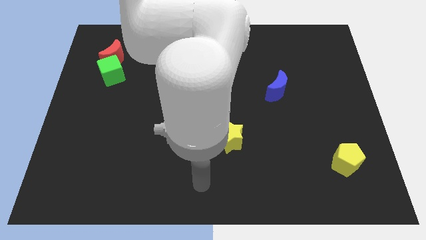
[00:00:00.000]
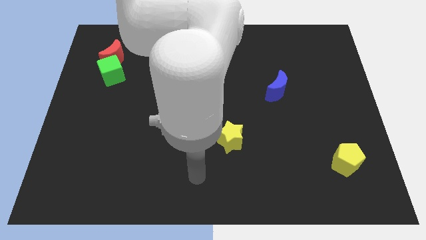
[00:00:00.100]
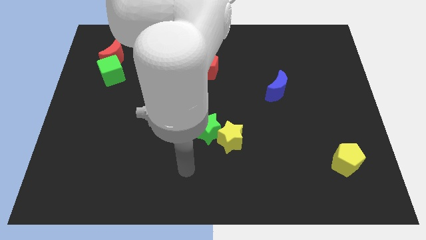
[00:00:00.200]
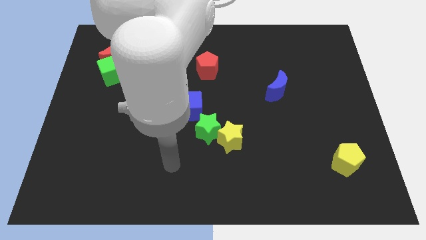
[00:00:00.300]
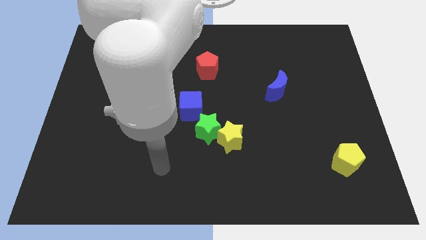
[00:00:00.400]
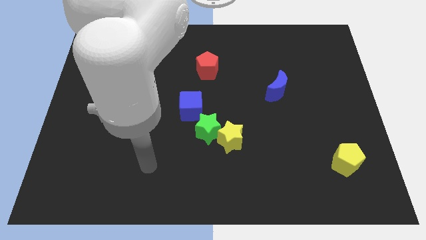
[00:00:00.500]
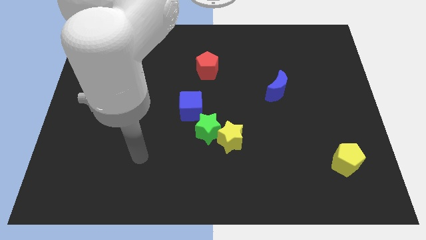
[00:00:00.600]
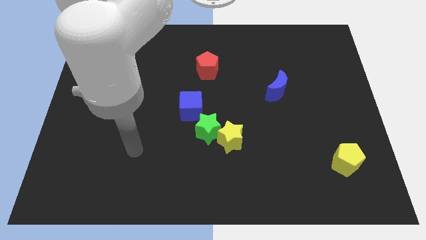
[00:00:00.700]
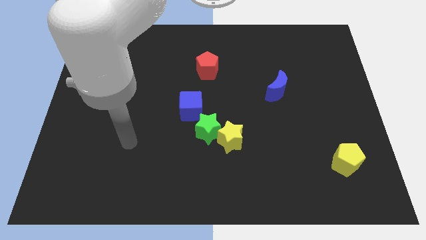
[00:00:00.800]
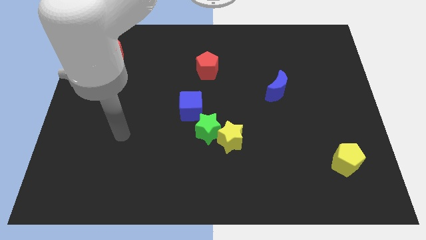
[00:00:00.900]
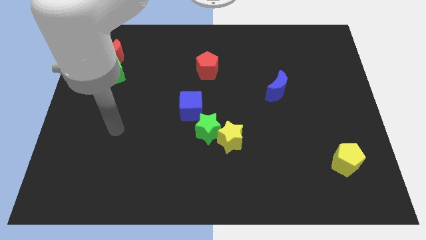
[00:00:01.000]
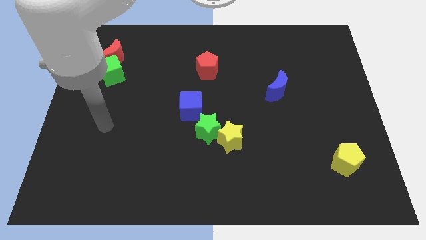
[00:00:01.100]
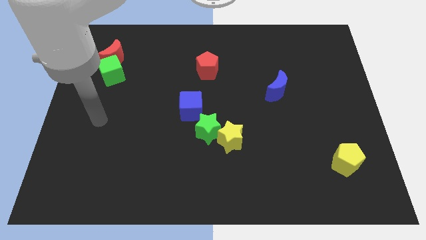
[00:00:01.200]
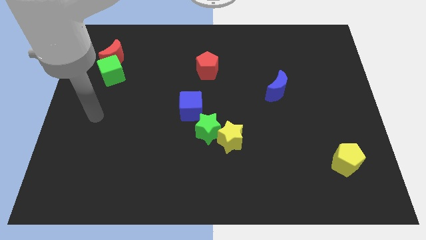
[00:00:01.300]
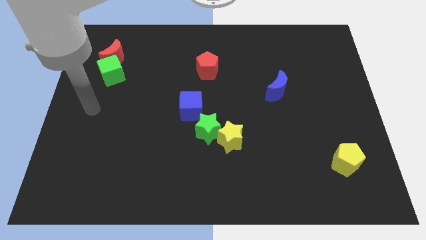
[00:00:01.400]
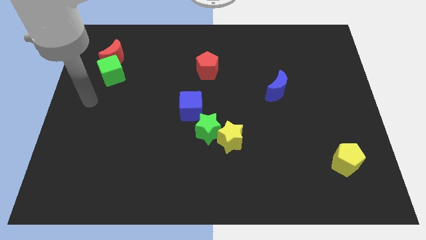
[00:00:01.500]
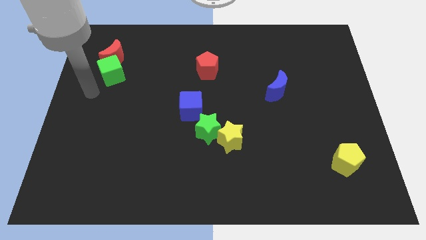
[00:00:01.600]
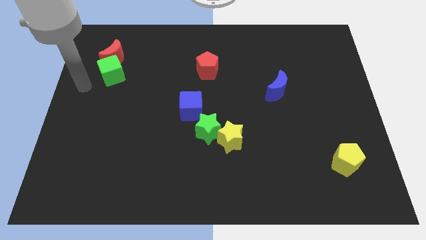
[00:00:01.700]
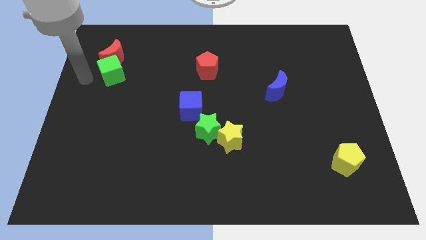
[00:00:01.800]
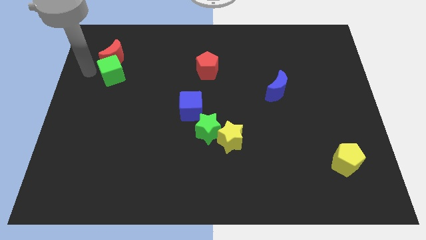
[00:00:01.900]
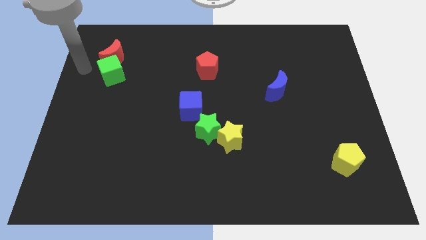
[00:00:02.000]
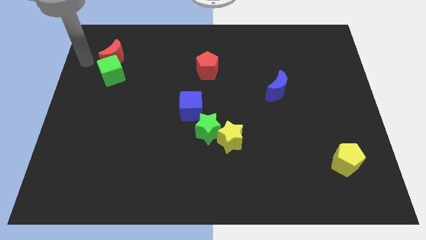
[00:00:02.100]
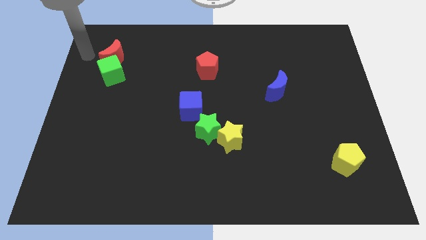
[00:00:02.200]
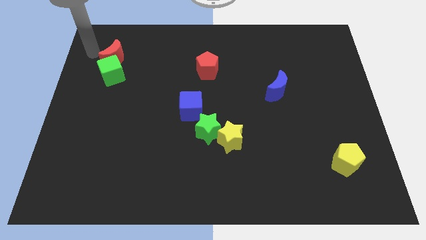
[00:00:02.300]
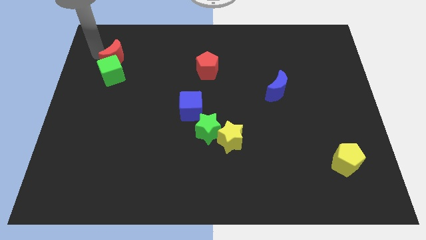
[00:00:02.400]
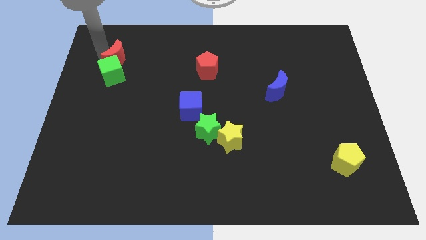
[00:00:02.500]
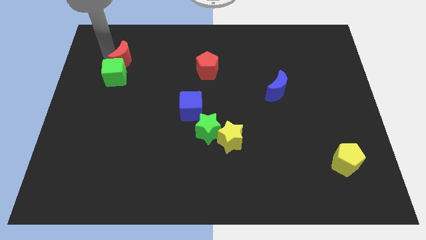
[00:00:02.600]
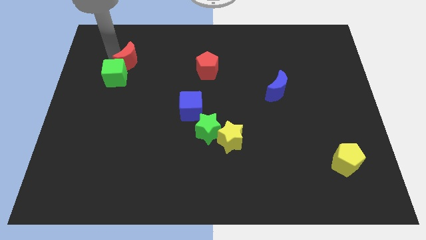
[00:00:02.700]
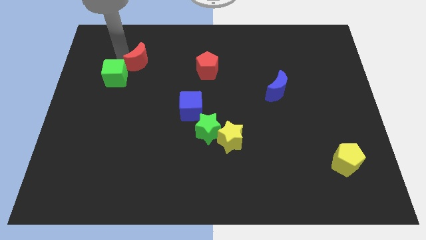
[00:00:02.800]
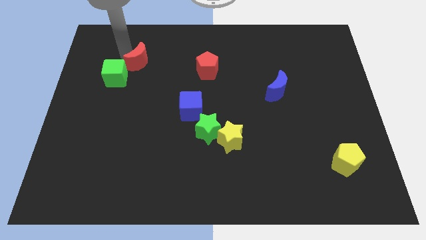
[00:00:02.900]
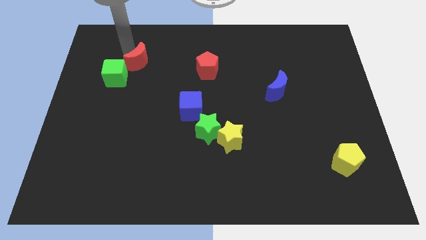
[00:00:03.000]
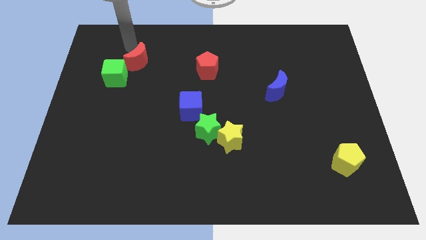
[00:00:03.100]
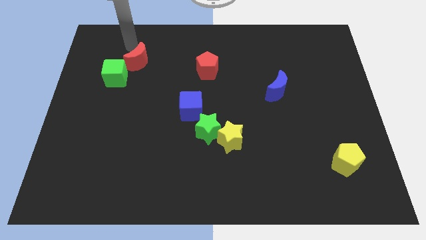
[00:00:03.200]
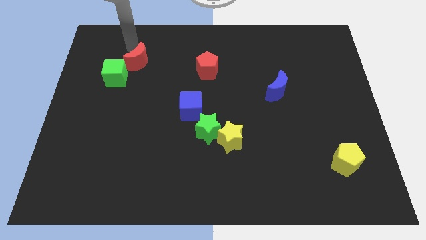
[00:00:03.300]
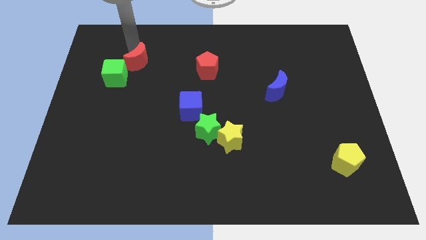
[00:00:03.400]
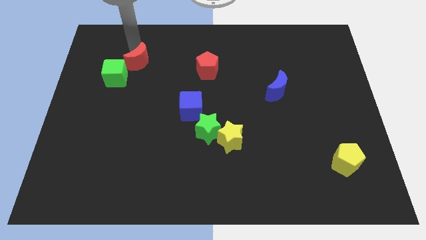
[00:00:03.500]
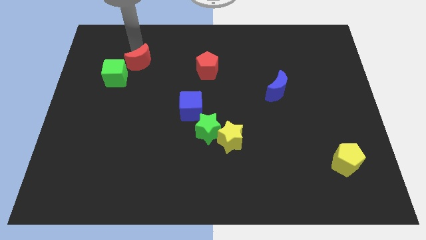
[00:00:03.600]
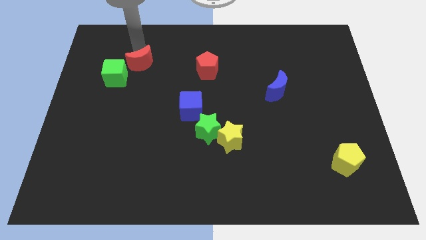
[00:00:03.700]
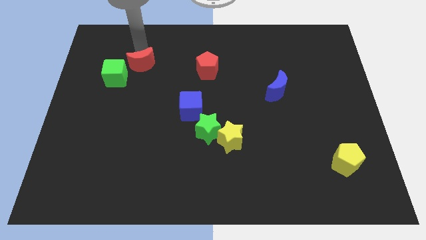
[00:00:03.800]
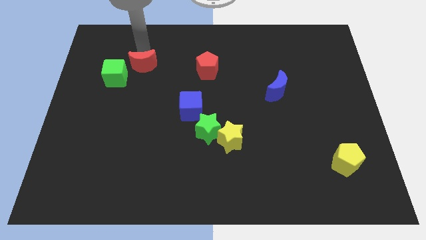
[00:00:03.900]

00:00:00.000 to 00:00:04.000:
slightly slide the red moon down and right diagonally

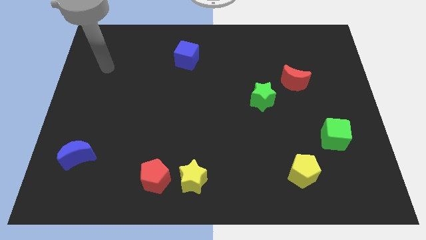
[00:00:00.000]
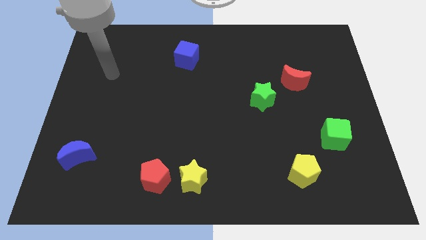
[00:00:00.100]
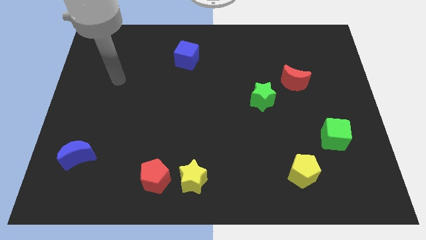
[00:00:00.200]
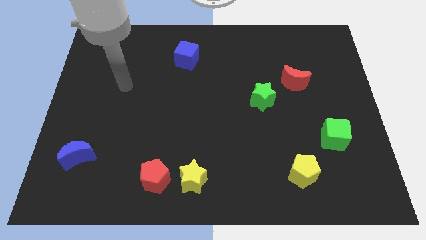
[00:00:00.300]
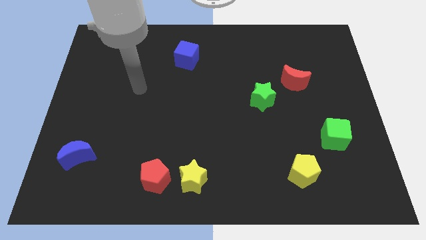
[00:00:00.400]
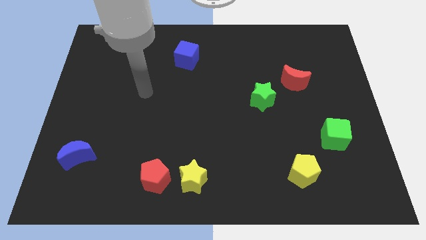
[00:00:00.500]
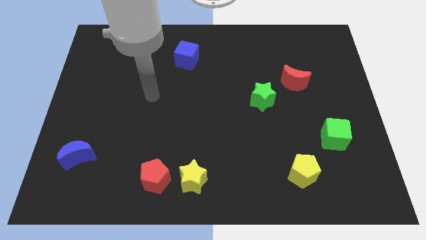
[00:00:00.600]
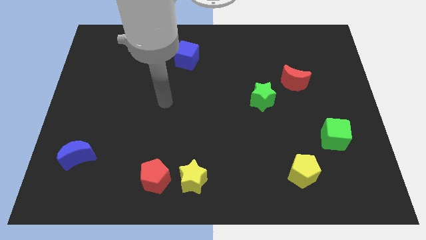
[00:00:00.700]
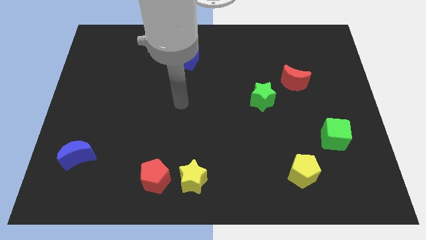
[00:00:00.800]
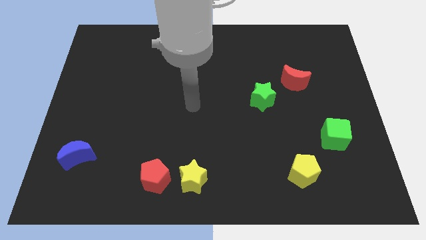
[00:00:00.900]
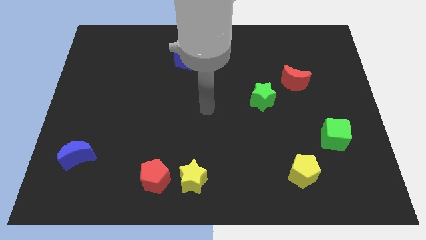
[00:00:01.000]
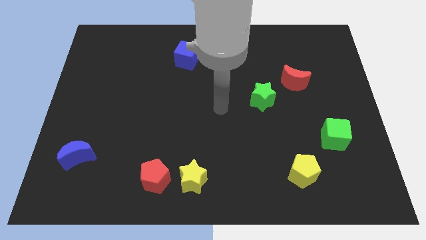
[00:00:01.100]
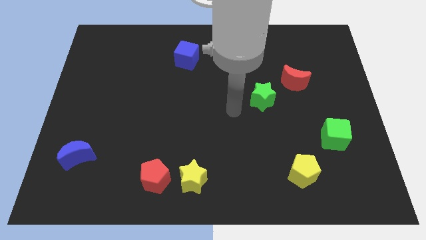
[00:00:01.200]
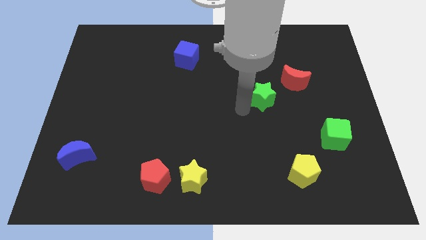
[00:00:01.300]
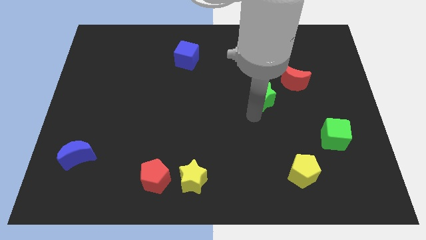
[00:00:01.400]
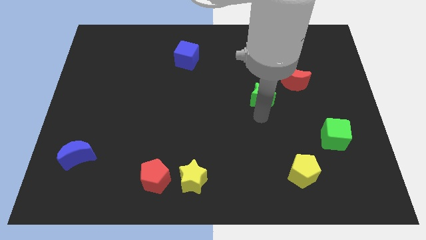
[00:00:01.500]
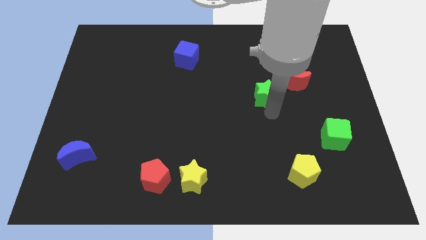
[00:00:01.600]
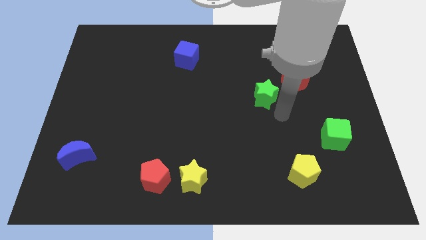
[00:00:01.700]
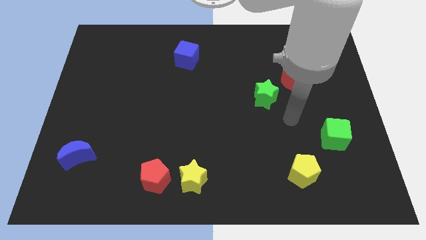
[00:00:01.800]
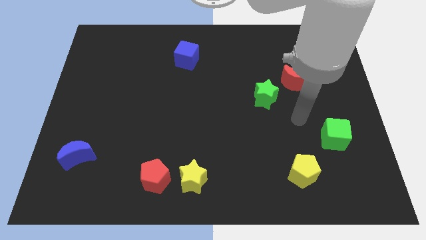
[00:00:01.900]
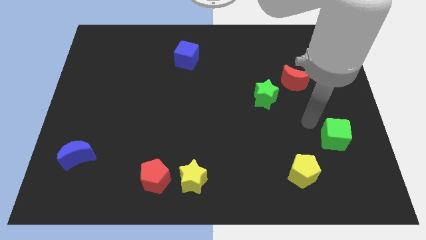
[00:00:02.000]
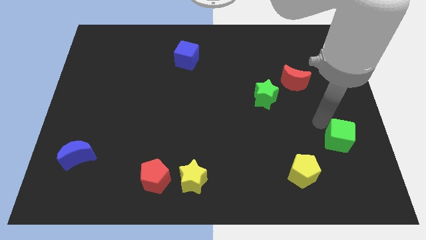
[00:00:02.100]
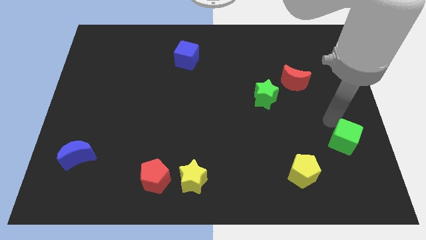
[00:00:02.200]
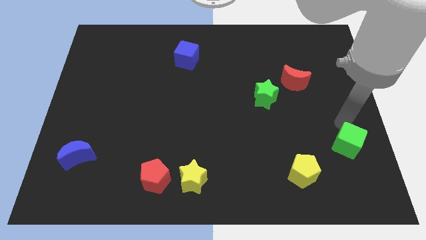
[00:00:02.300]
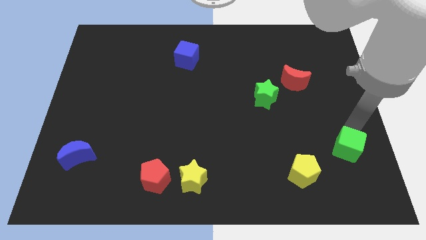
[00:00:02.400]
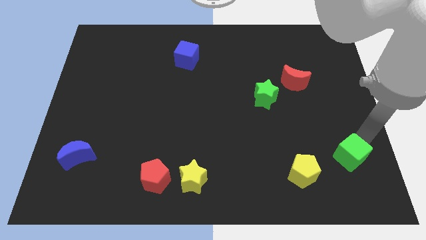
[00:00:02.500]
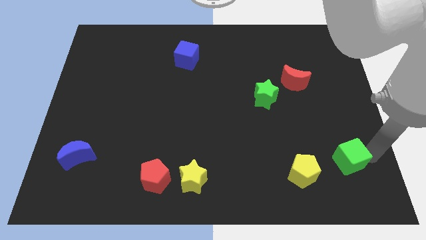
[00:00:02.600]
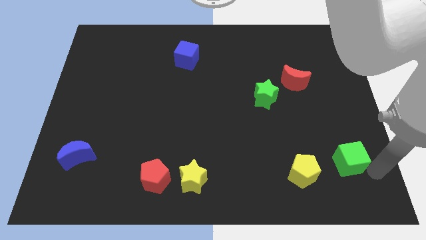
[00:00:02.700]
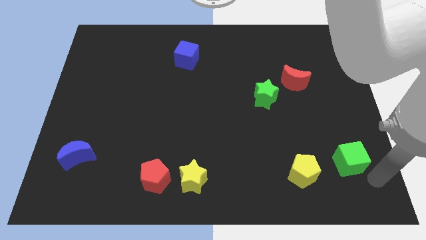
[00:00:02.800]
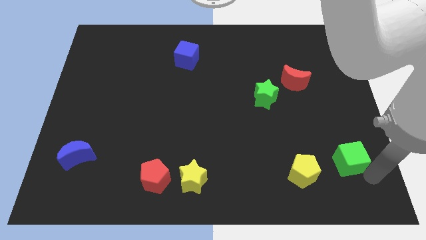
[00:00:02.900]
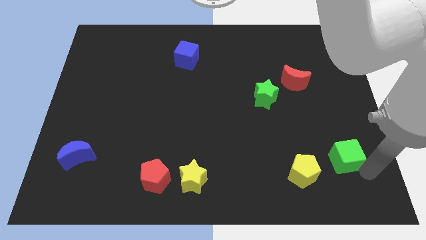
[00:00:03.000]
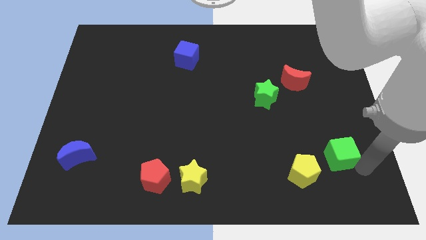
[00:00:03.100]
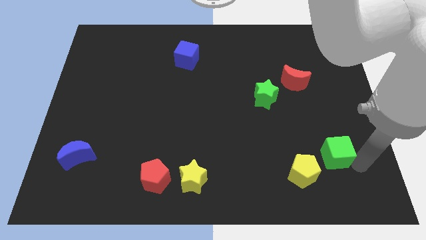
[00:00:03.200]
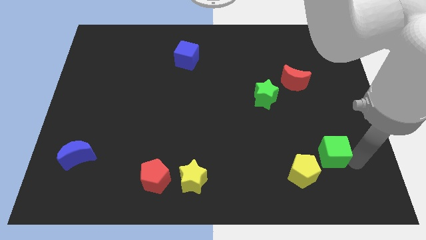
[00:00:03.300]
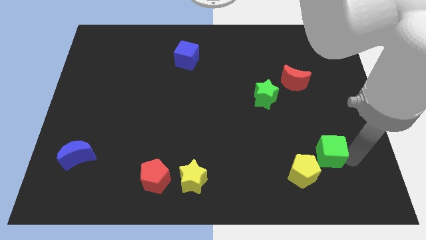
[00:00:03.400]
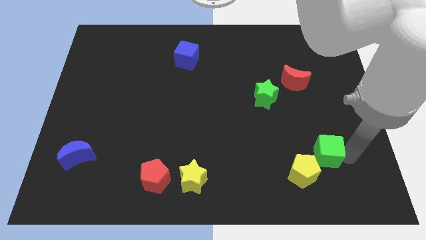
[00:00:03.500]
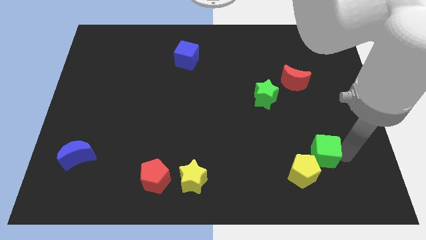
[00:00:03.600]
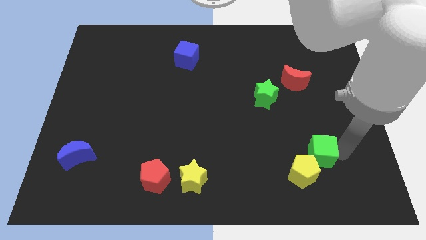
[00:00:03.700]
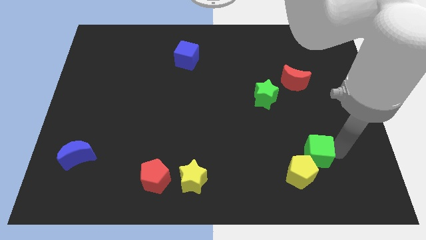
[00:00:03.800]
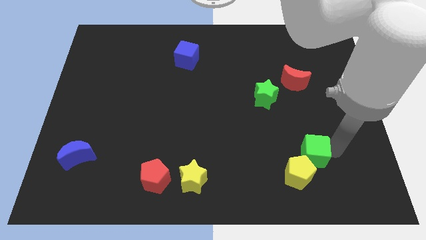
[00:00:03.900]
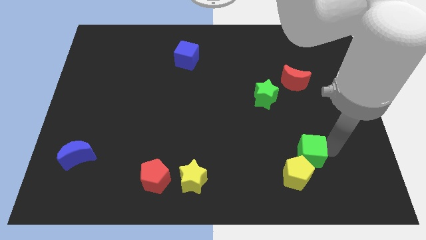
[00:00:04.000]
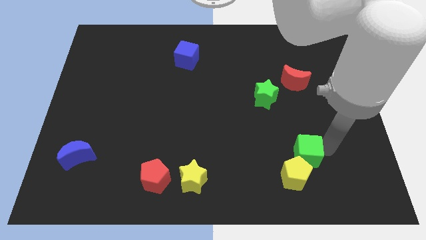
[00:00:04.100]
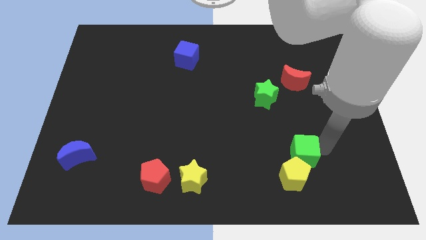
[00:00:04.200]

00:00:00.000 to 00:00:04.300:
push the green cube a bit to the left
